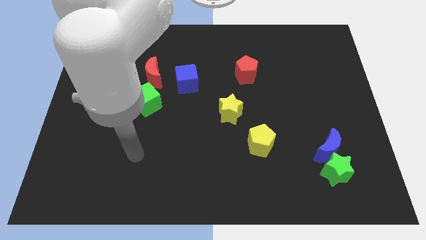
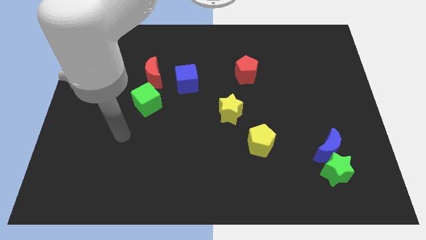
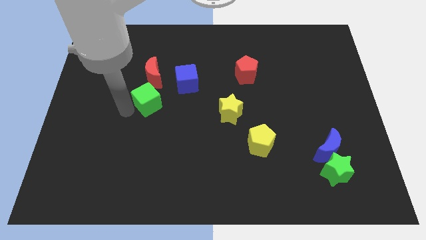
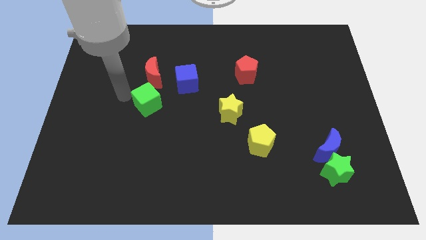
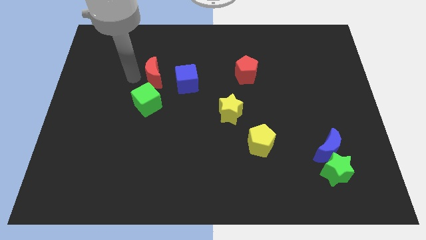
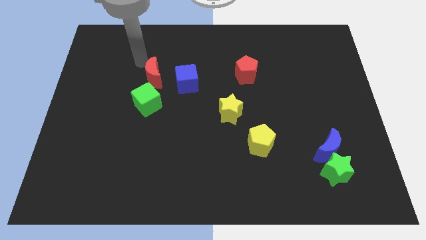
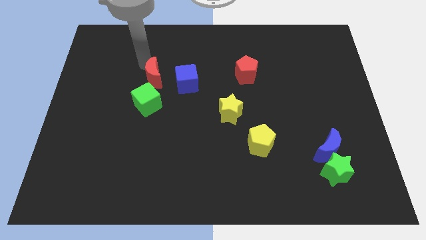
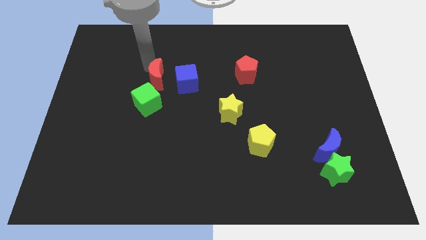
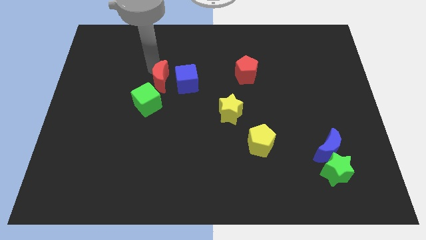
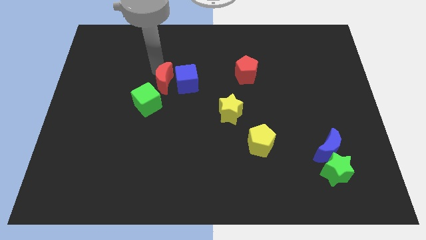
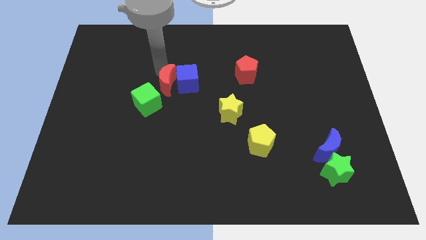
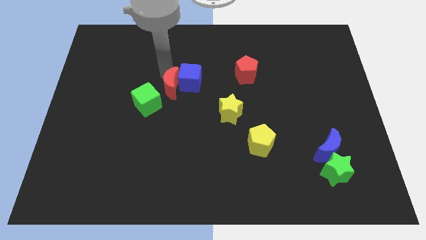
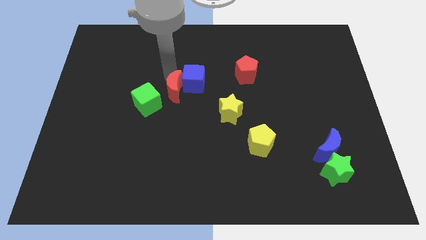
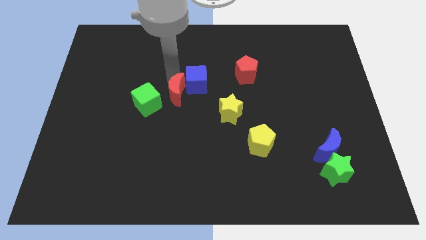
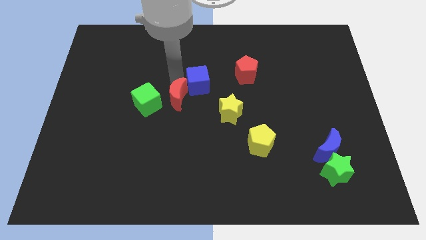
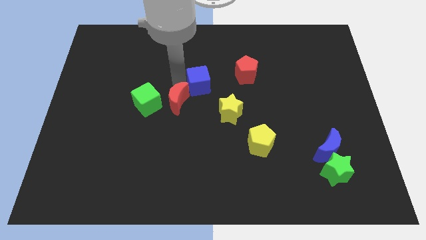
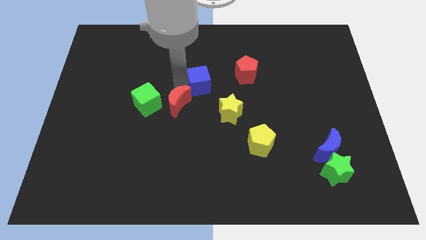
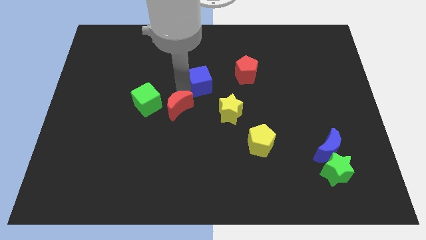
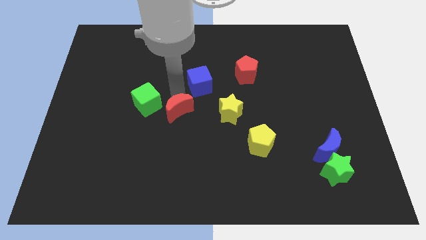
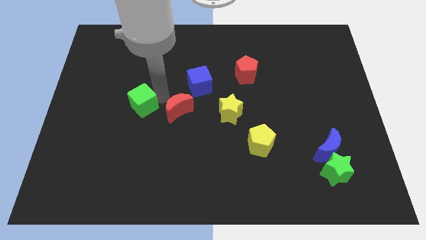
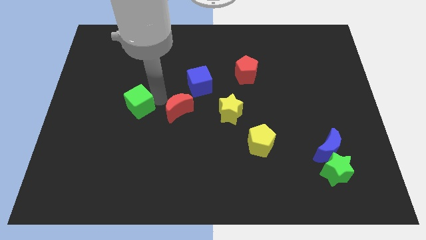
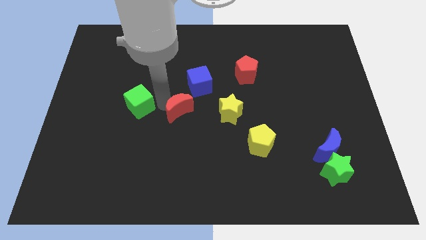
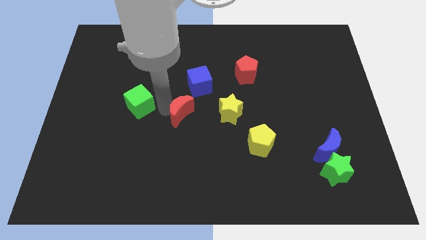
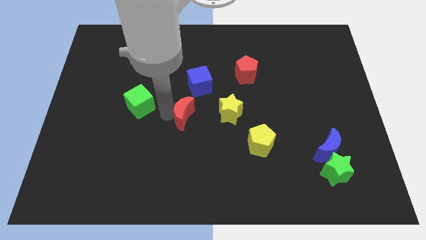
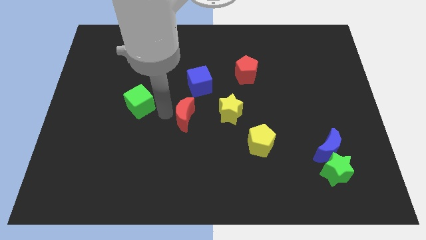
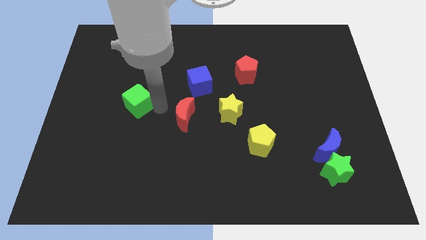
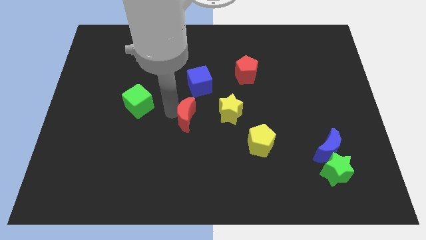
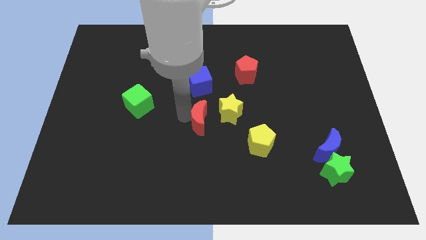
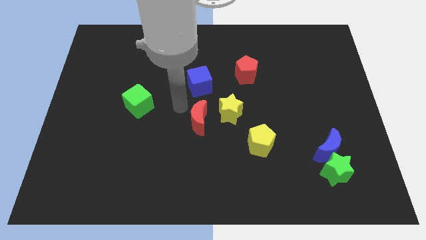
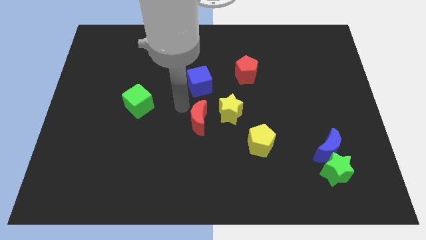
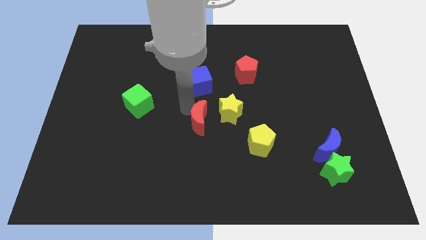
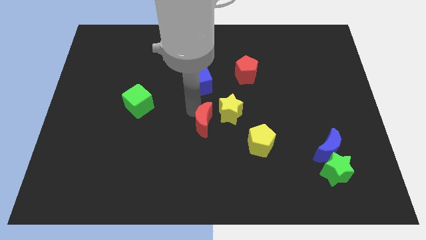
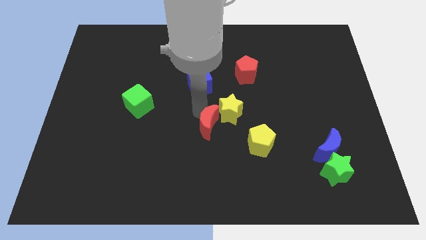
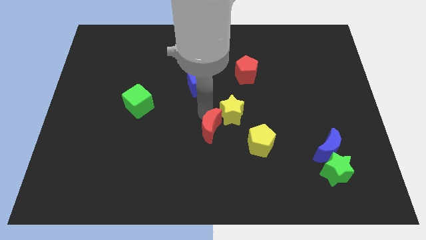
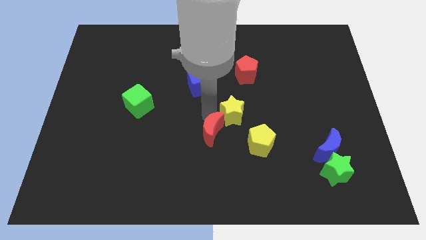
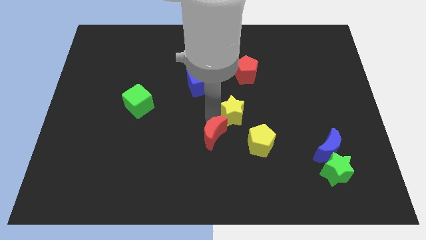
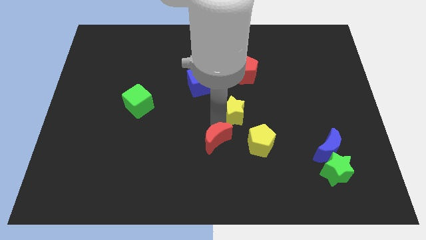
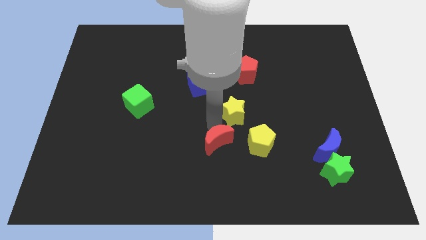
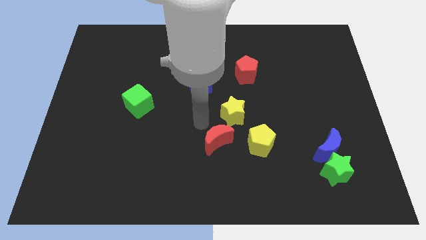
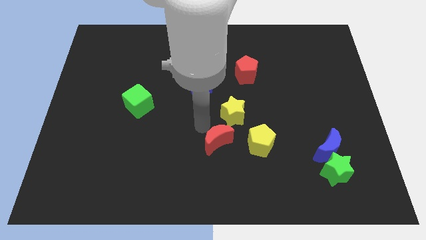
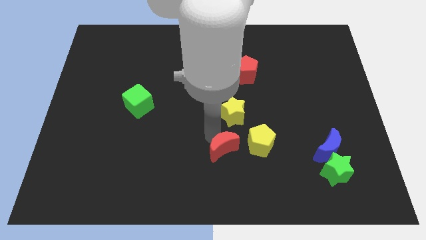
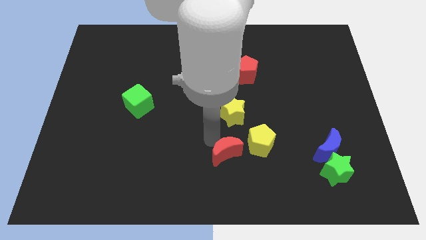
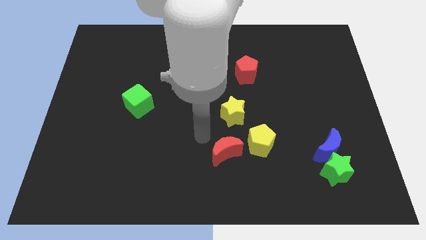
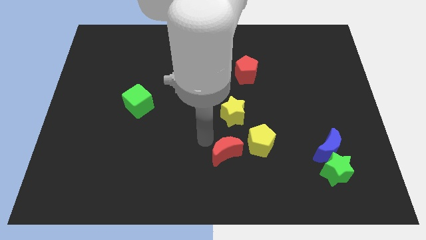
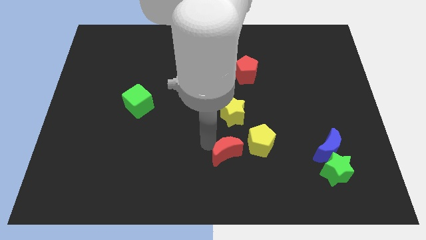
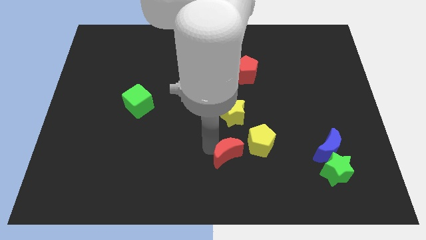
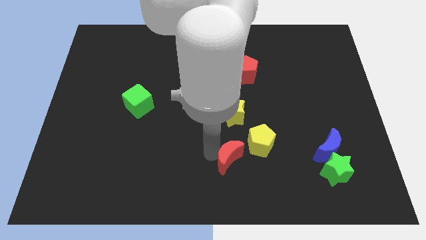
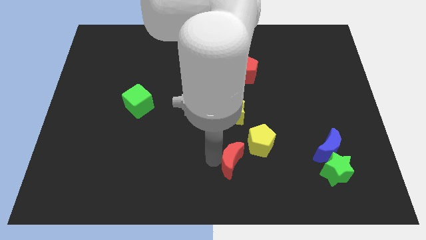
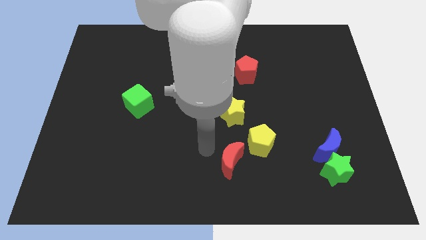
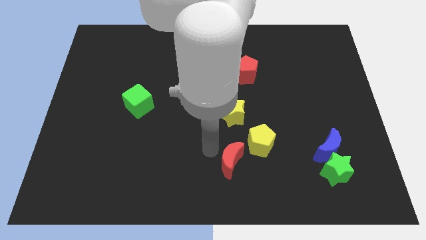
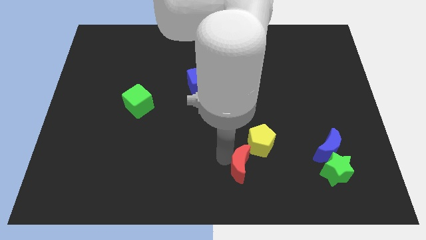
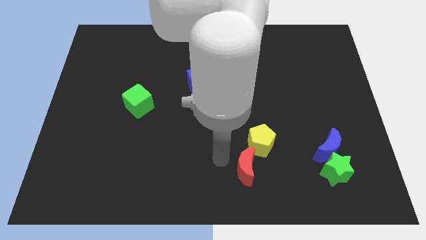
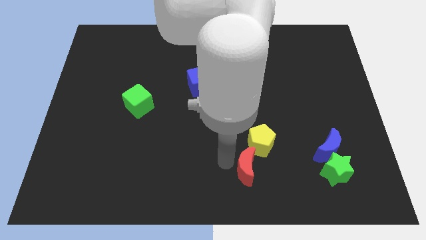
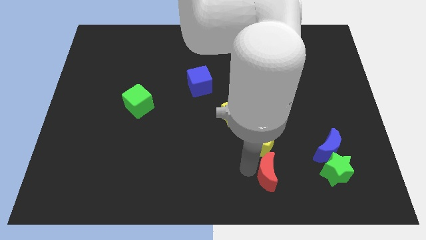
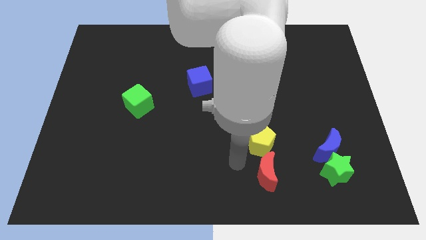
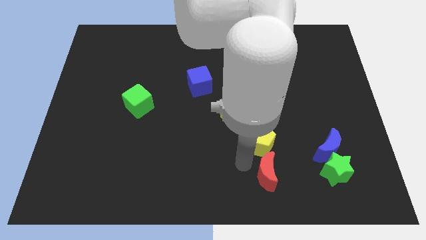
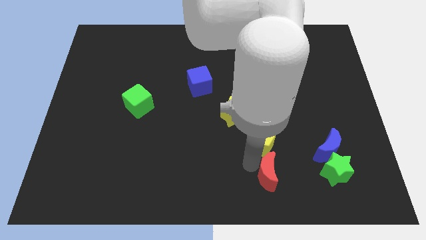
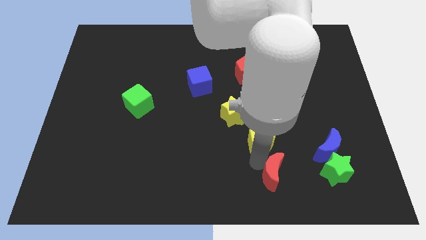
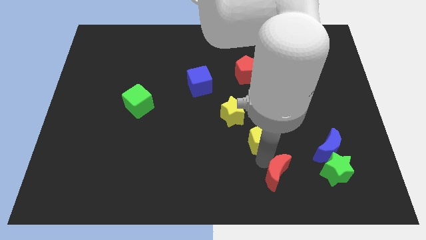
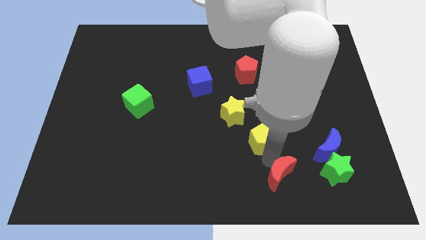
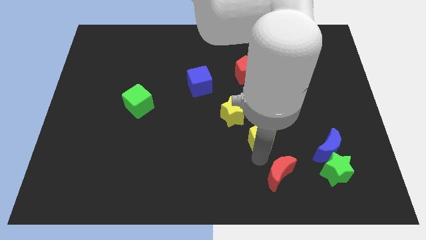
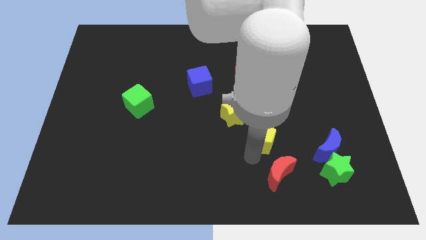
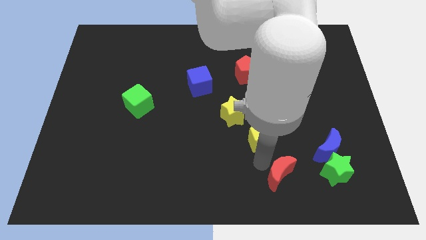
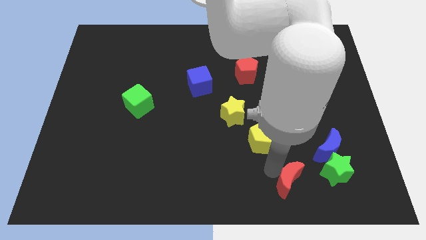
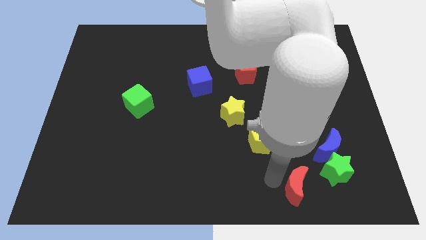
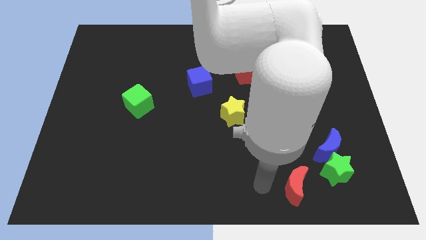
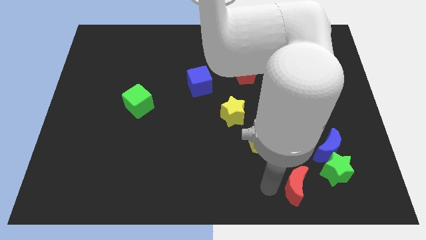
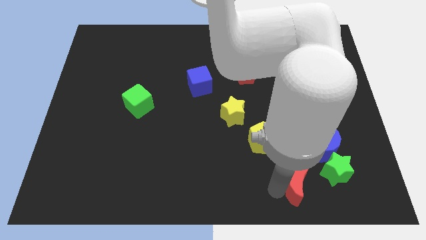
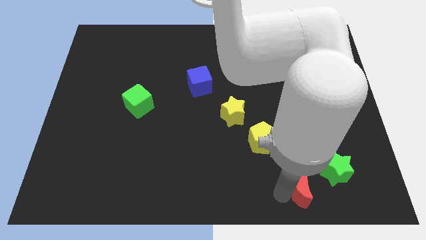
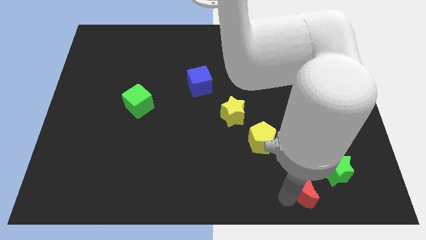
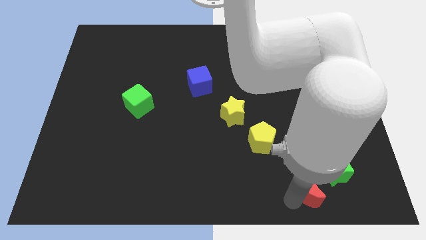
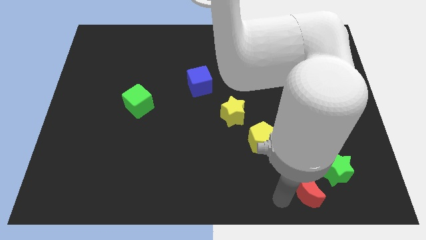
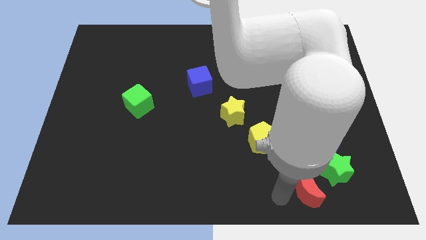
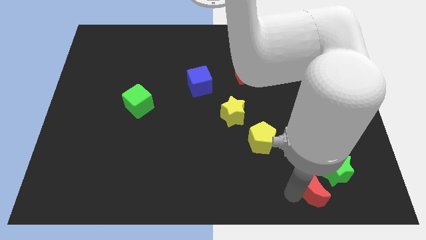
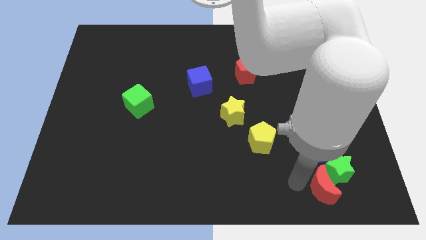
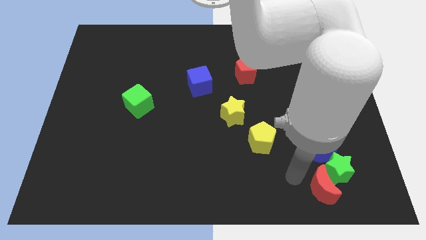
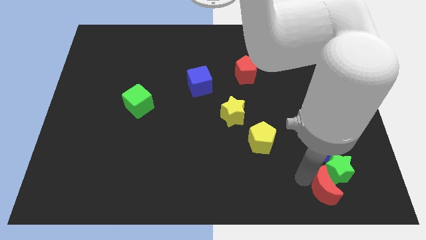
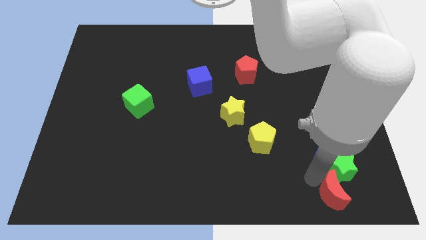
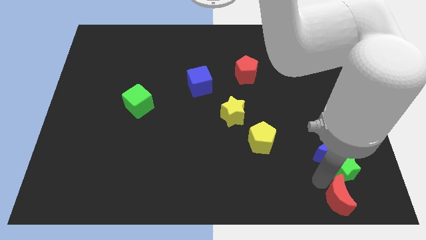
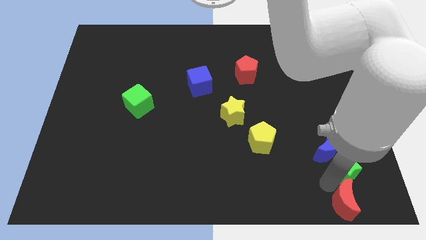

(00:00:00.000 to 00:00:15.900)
slide the red moon to the bottom right
